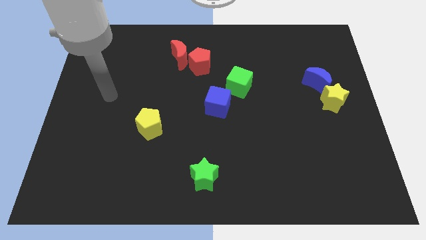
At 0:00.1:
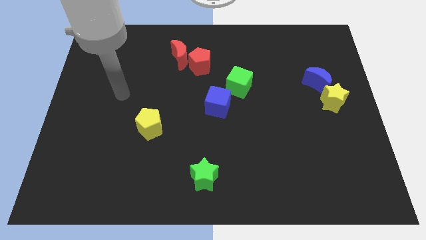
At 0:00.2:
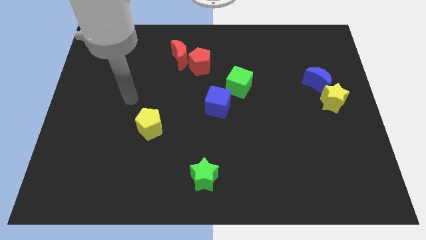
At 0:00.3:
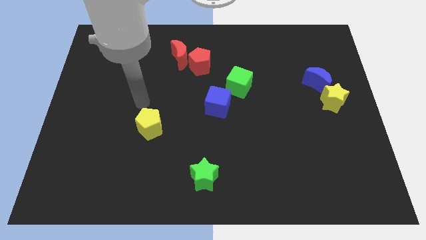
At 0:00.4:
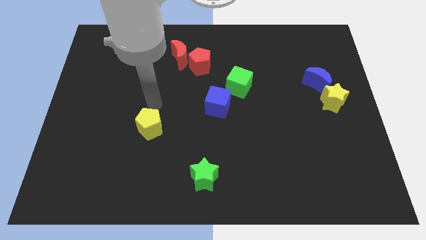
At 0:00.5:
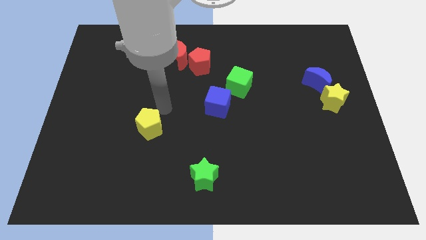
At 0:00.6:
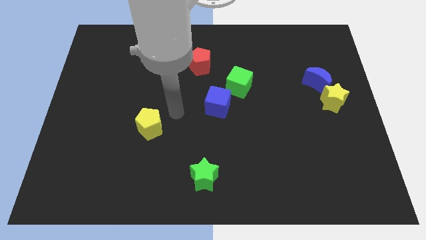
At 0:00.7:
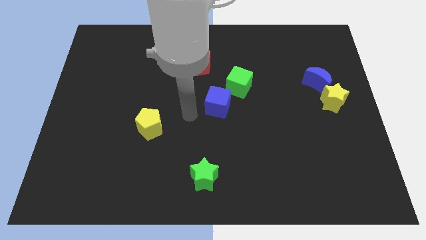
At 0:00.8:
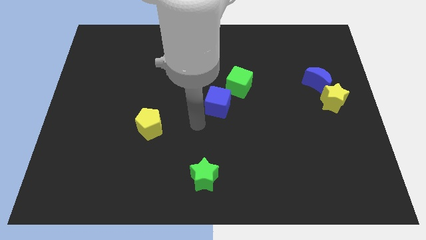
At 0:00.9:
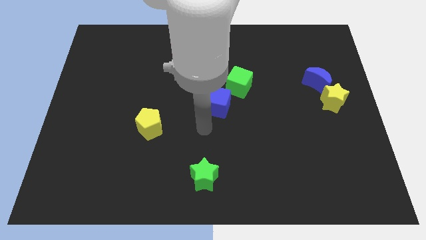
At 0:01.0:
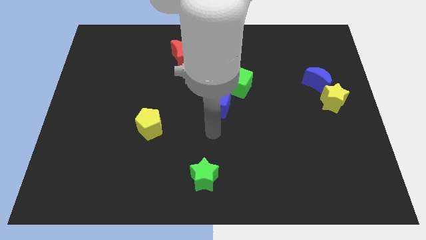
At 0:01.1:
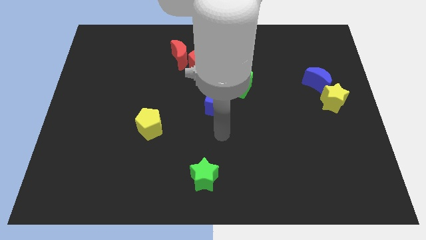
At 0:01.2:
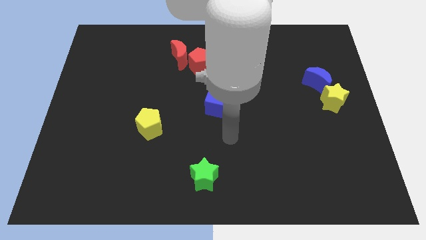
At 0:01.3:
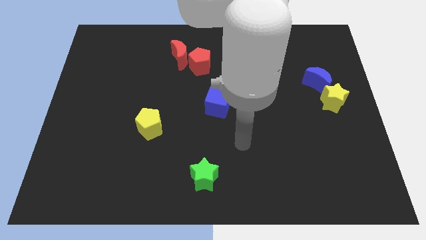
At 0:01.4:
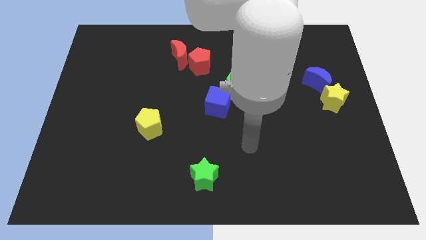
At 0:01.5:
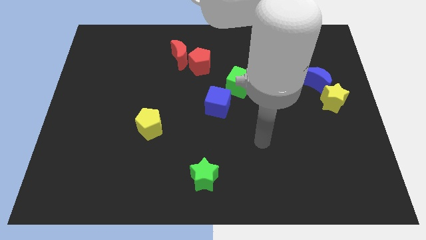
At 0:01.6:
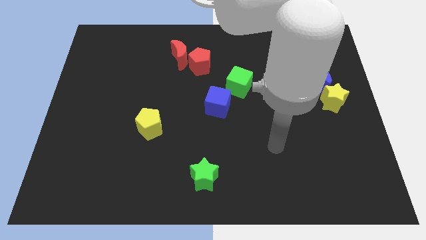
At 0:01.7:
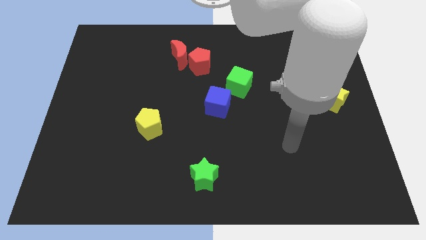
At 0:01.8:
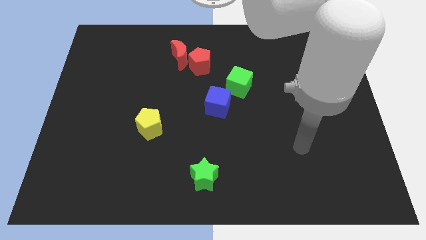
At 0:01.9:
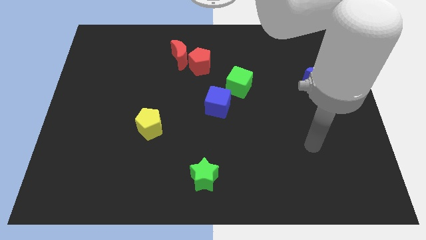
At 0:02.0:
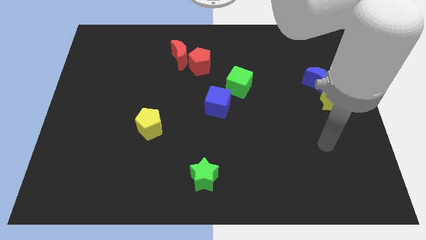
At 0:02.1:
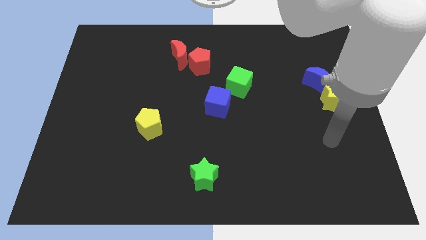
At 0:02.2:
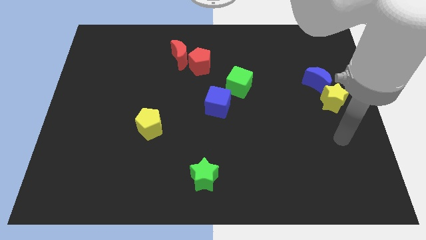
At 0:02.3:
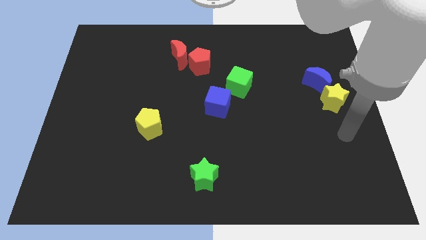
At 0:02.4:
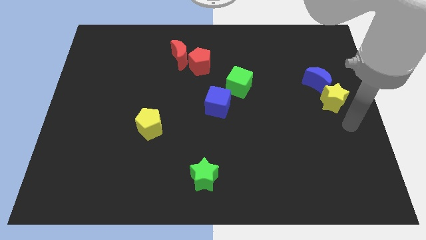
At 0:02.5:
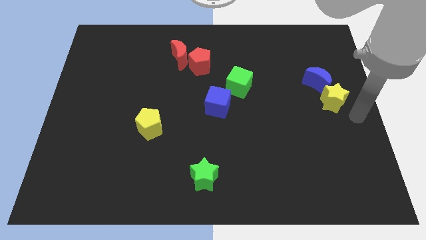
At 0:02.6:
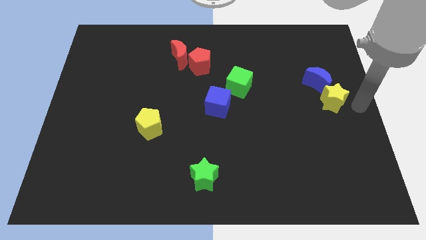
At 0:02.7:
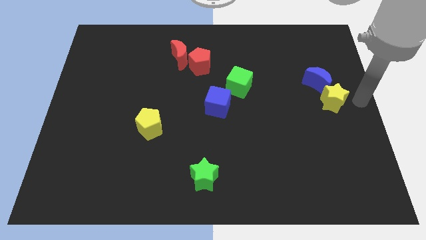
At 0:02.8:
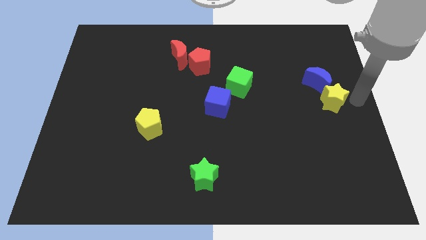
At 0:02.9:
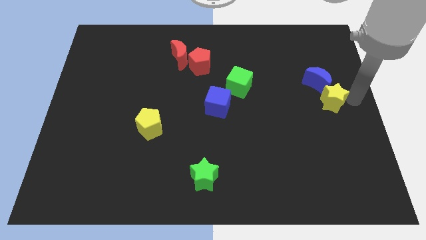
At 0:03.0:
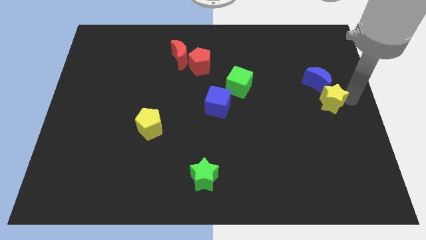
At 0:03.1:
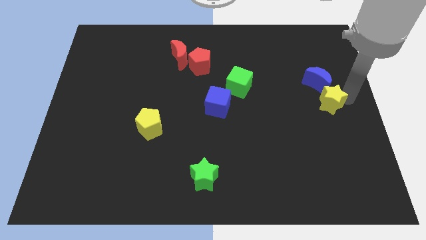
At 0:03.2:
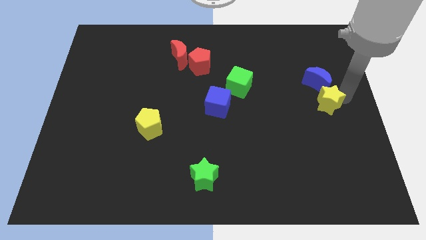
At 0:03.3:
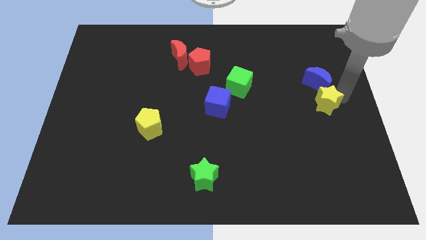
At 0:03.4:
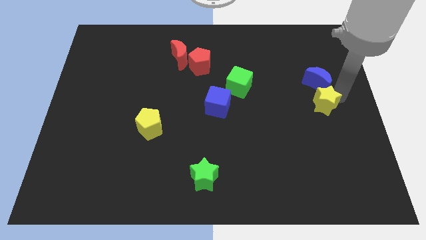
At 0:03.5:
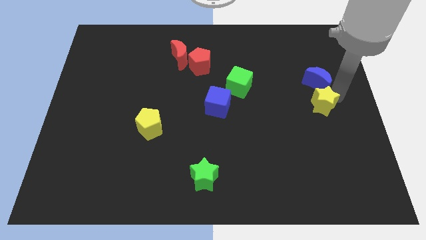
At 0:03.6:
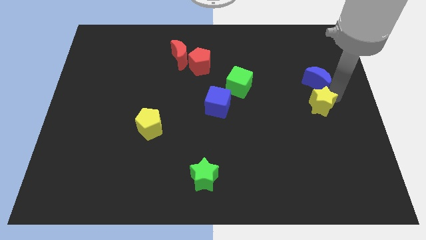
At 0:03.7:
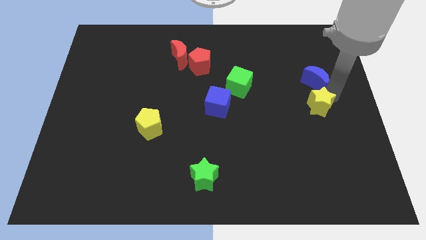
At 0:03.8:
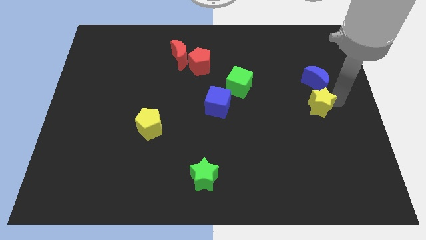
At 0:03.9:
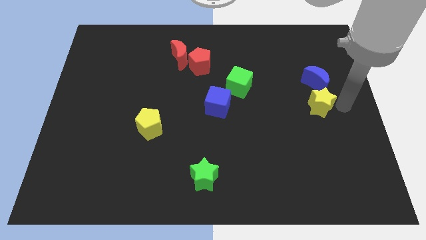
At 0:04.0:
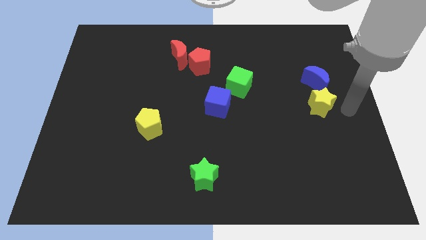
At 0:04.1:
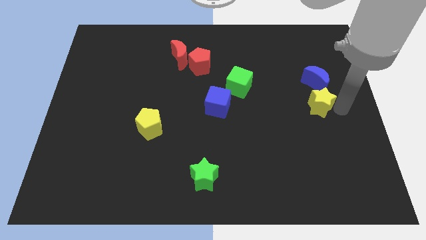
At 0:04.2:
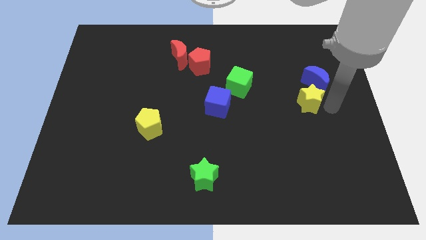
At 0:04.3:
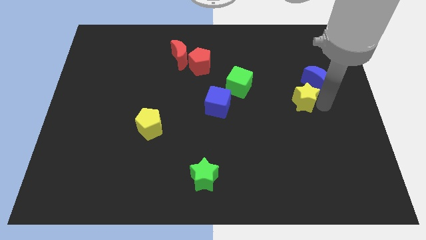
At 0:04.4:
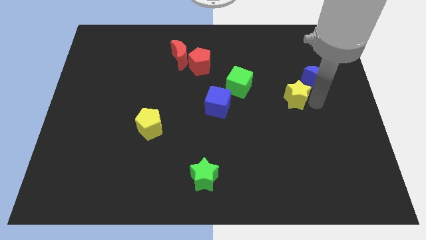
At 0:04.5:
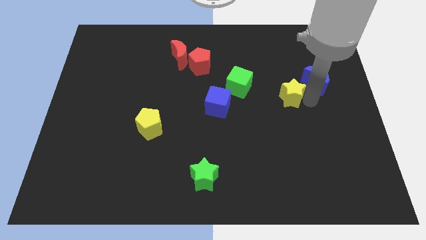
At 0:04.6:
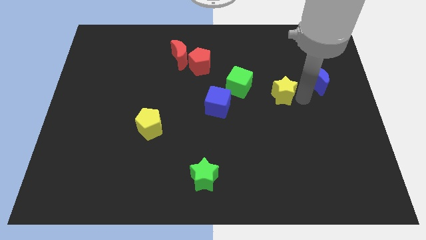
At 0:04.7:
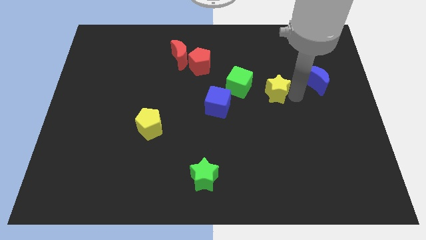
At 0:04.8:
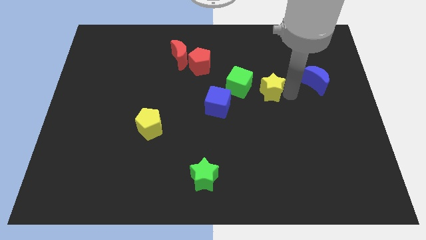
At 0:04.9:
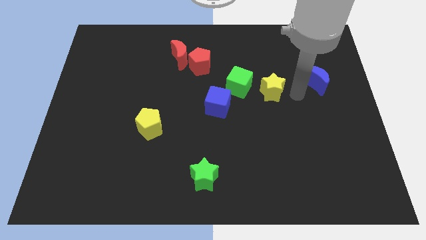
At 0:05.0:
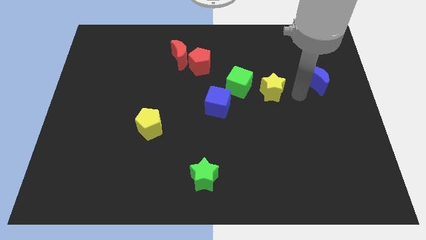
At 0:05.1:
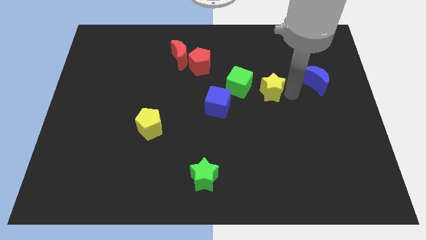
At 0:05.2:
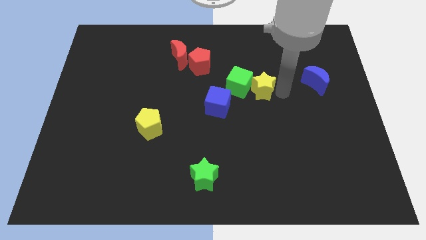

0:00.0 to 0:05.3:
push the yellow star next to the green cube

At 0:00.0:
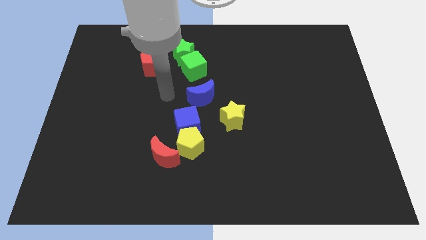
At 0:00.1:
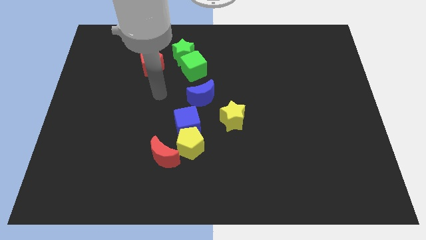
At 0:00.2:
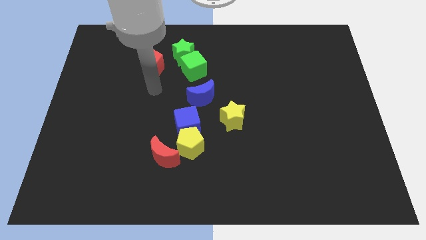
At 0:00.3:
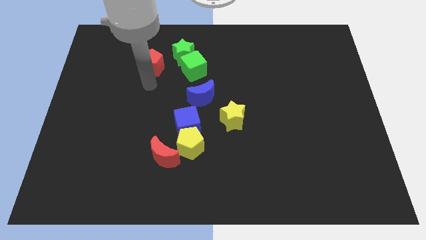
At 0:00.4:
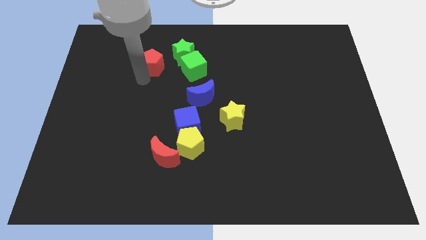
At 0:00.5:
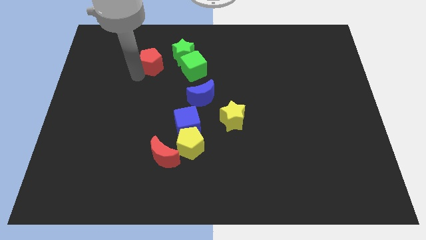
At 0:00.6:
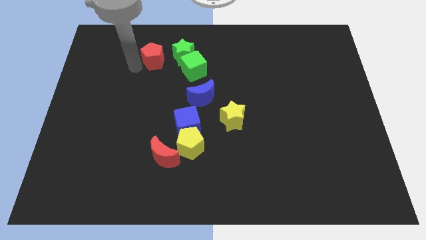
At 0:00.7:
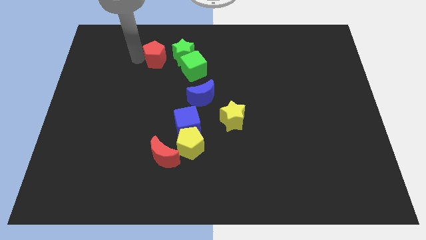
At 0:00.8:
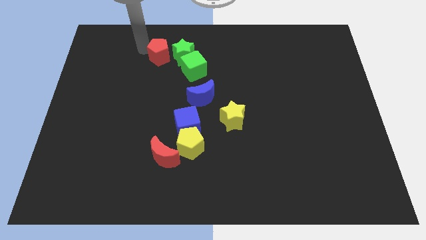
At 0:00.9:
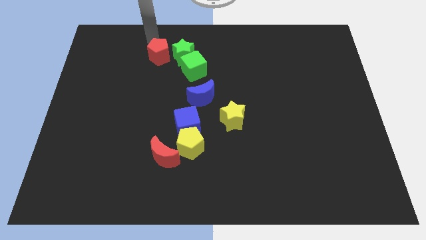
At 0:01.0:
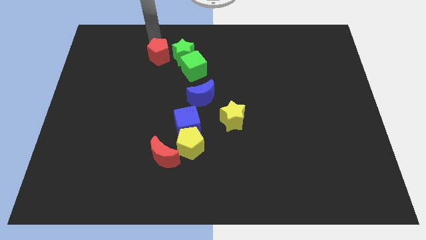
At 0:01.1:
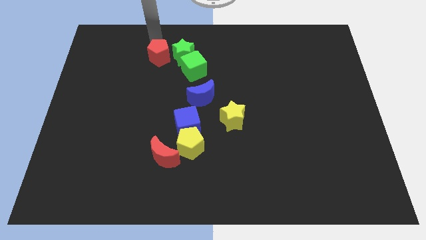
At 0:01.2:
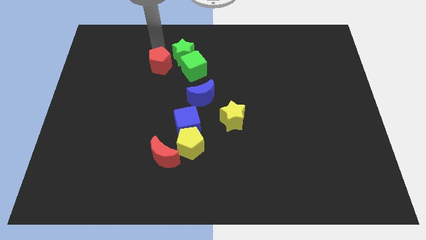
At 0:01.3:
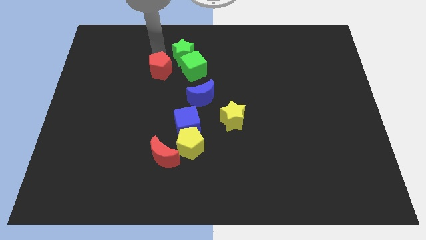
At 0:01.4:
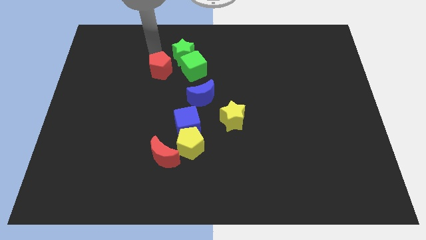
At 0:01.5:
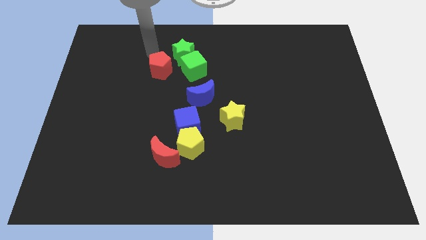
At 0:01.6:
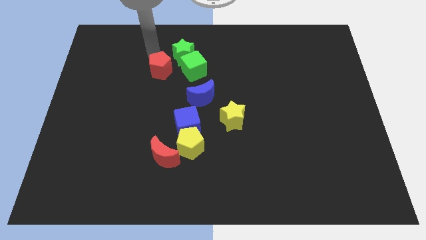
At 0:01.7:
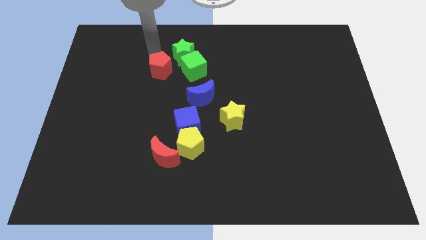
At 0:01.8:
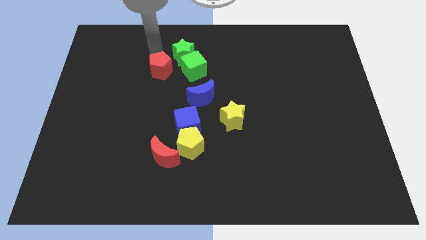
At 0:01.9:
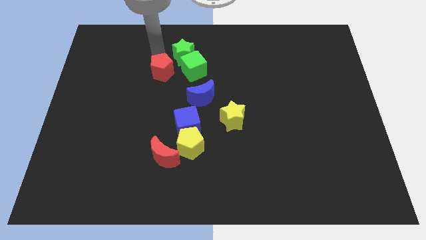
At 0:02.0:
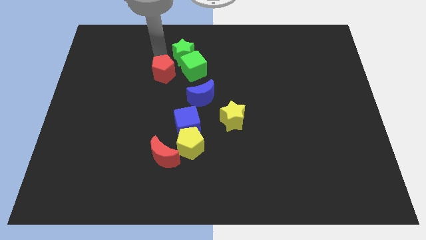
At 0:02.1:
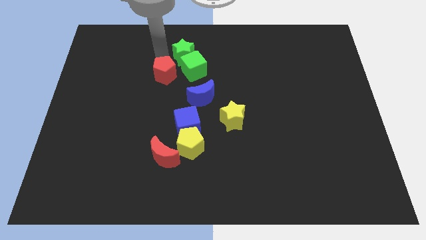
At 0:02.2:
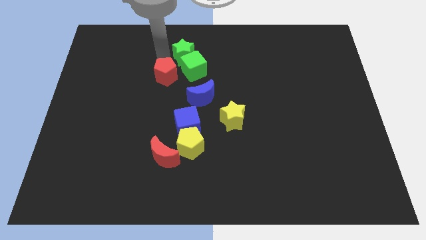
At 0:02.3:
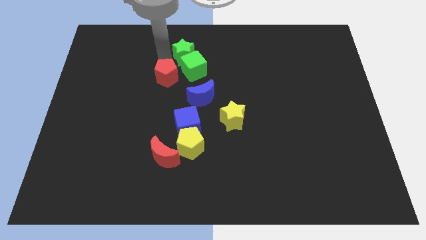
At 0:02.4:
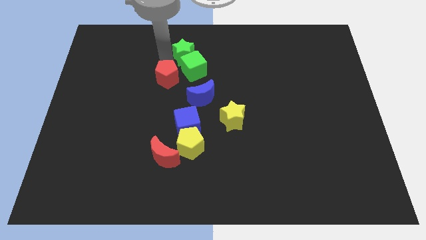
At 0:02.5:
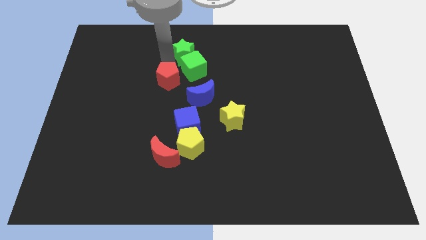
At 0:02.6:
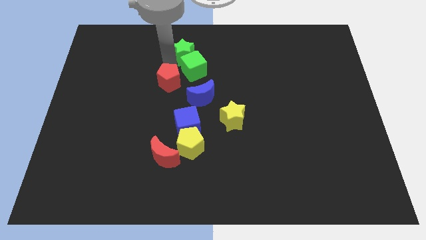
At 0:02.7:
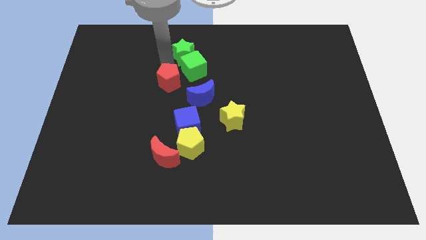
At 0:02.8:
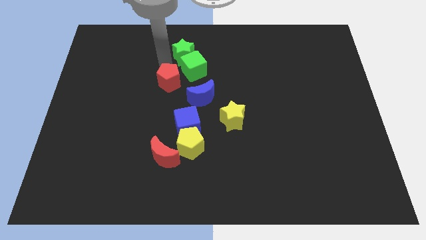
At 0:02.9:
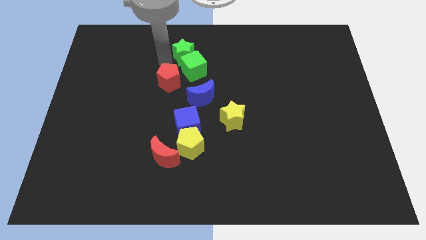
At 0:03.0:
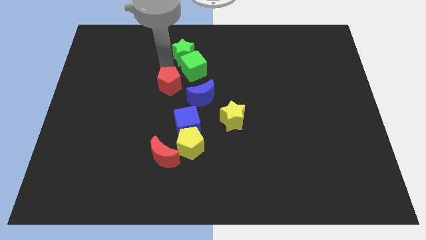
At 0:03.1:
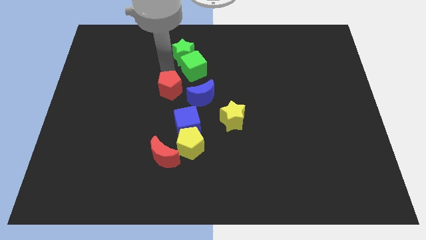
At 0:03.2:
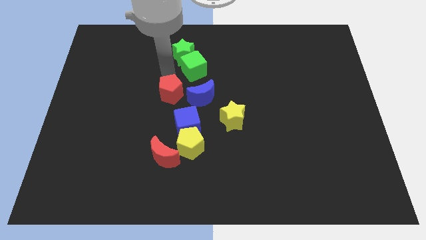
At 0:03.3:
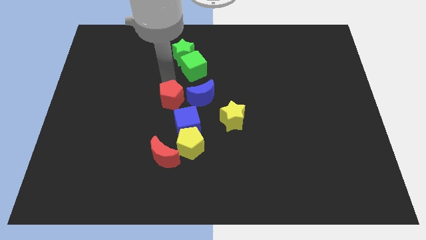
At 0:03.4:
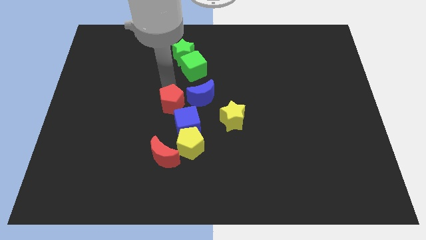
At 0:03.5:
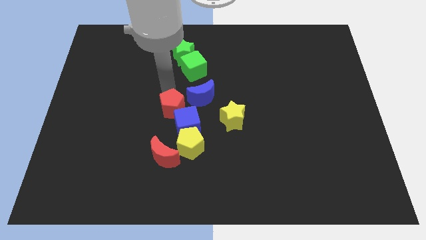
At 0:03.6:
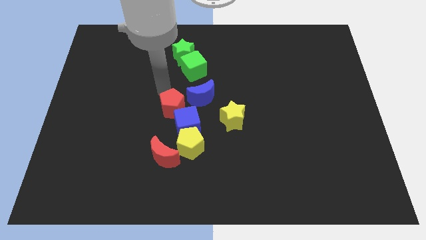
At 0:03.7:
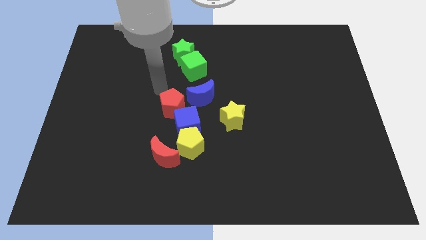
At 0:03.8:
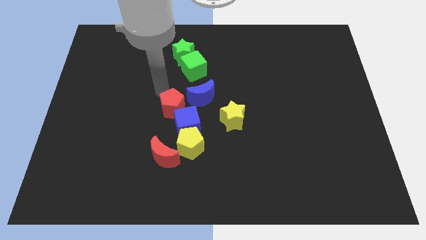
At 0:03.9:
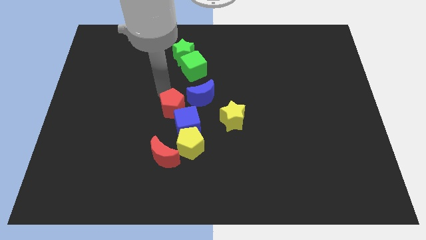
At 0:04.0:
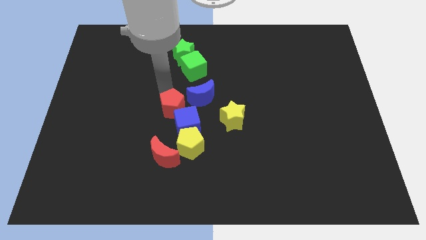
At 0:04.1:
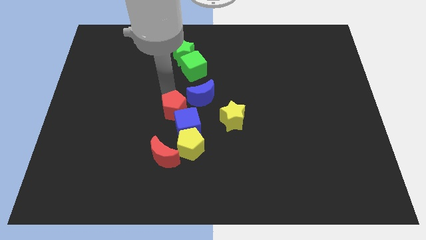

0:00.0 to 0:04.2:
put the red pentagon towards the blue cube
